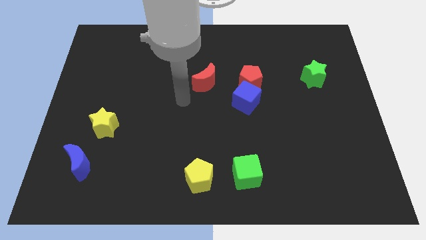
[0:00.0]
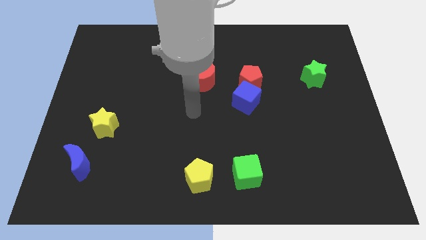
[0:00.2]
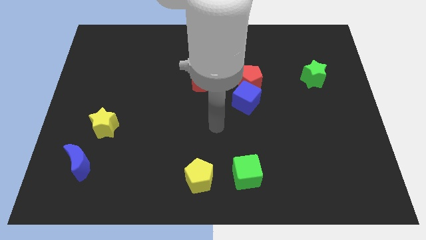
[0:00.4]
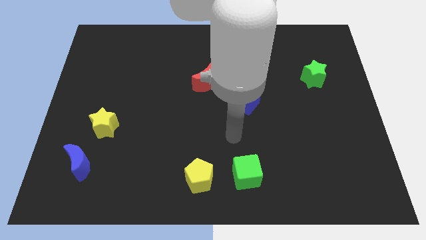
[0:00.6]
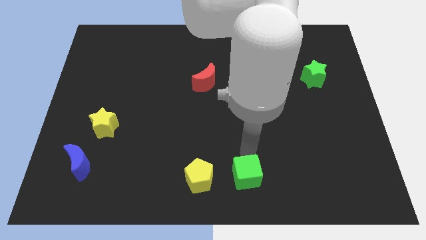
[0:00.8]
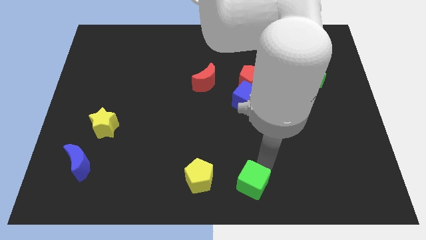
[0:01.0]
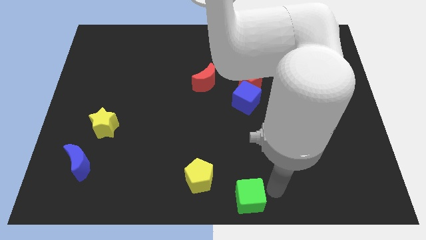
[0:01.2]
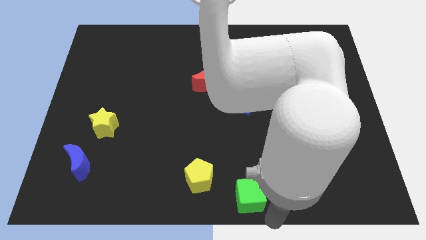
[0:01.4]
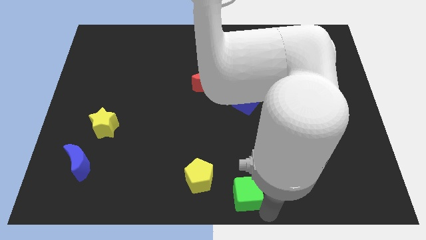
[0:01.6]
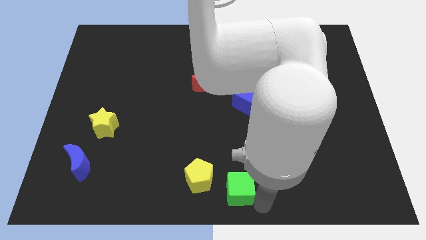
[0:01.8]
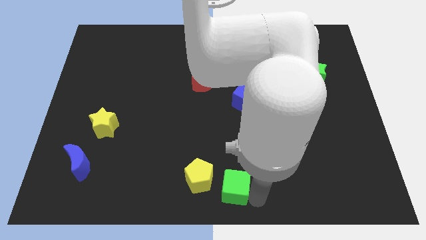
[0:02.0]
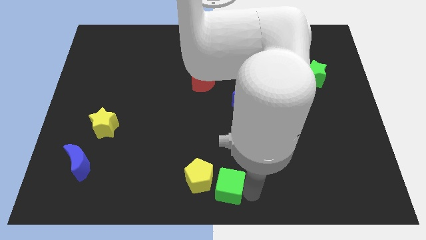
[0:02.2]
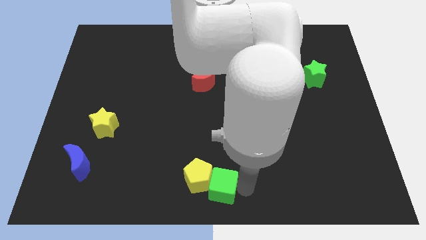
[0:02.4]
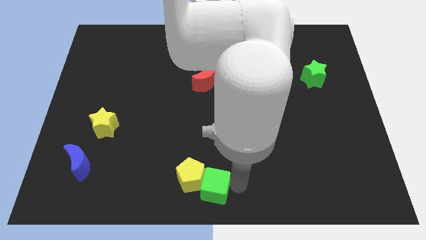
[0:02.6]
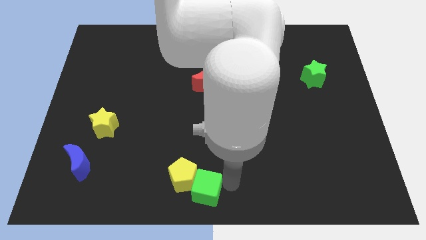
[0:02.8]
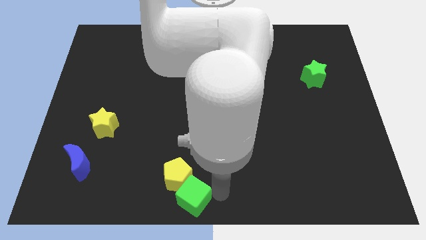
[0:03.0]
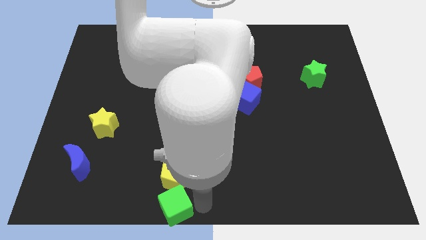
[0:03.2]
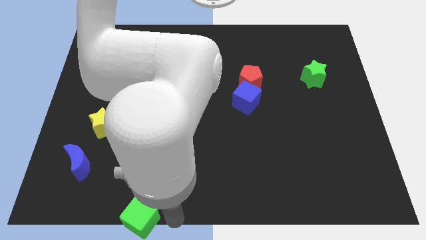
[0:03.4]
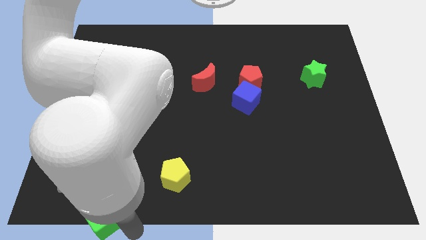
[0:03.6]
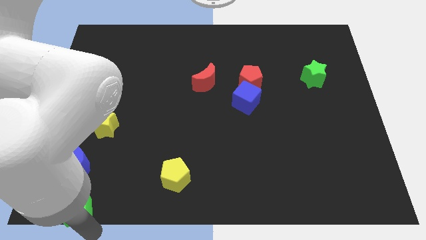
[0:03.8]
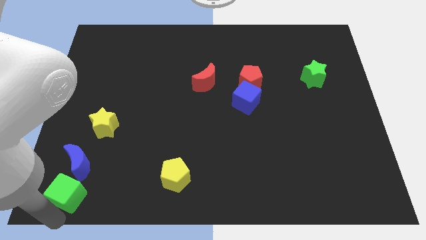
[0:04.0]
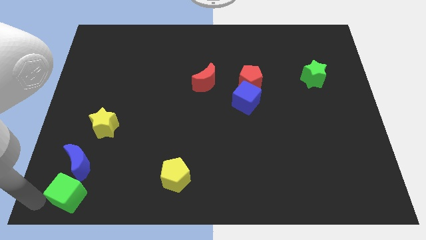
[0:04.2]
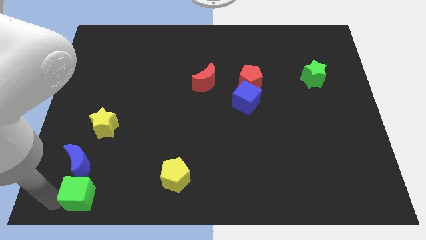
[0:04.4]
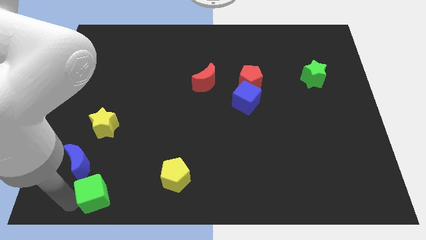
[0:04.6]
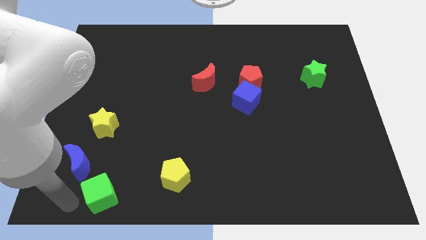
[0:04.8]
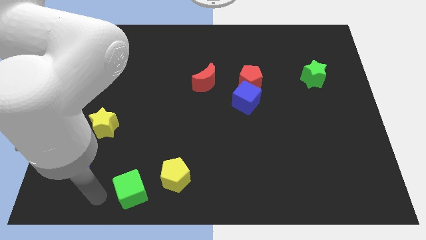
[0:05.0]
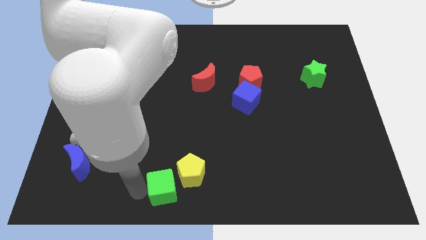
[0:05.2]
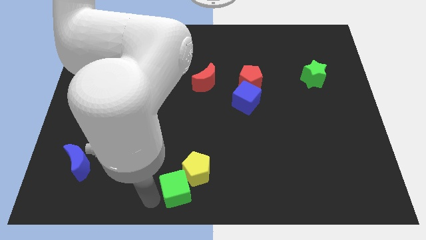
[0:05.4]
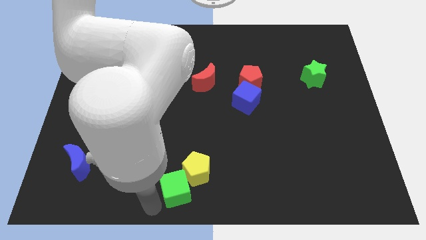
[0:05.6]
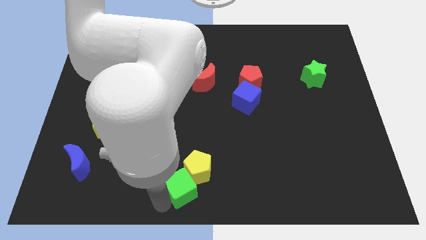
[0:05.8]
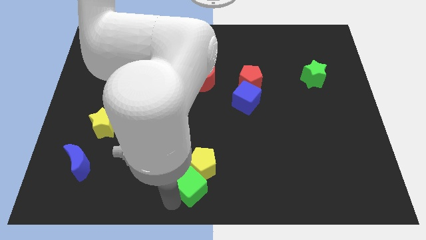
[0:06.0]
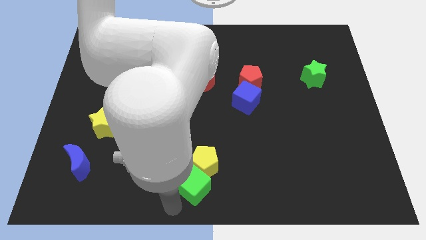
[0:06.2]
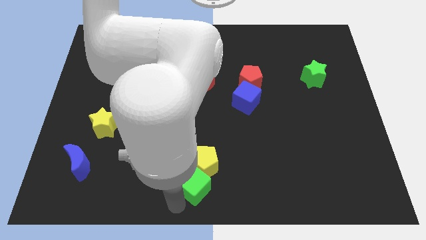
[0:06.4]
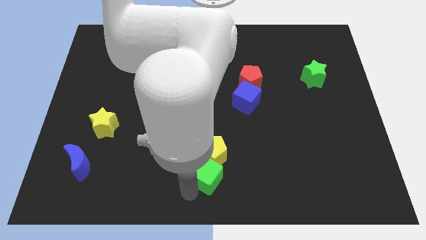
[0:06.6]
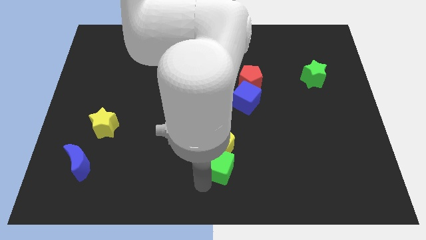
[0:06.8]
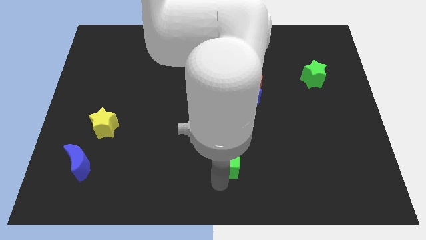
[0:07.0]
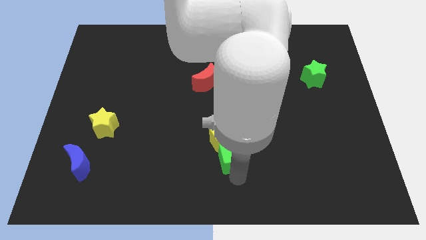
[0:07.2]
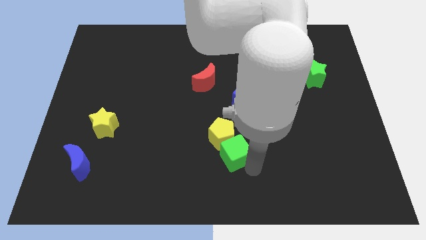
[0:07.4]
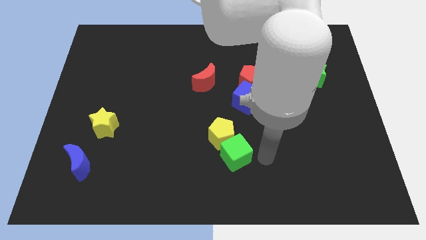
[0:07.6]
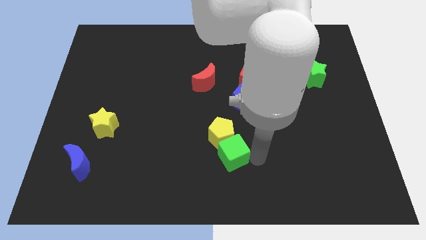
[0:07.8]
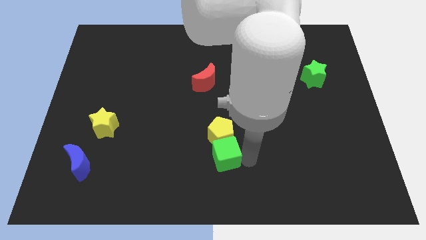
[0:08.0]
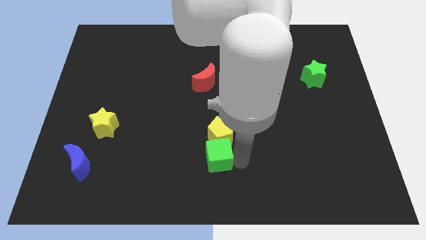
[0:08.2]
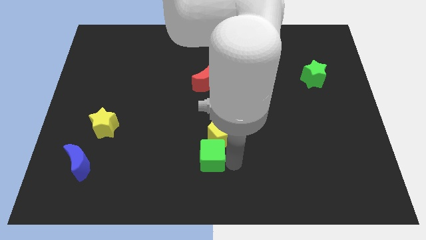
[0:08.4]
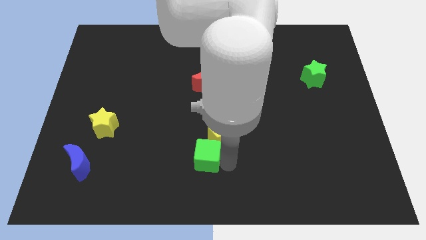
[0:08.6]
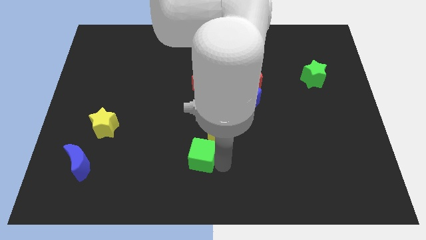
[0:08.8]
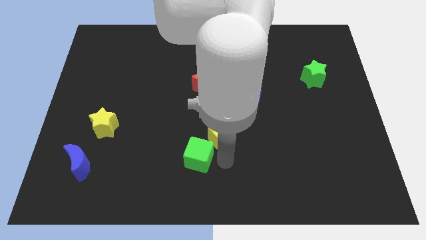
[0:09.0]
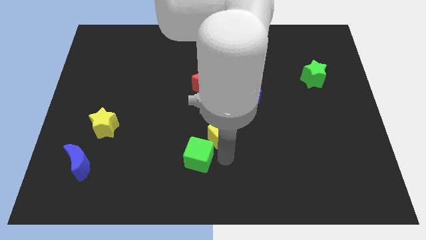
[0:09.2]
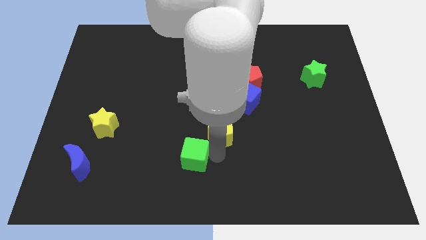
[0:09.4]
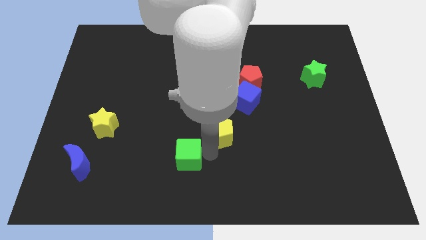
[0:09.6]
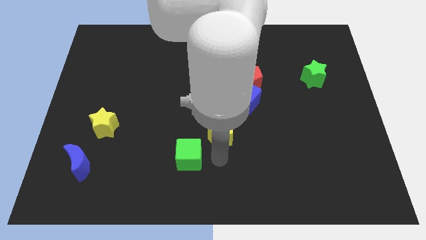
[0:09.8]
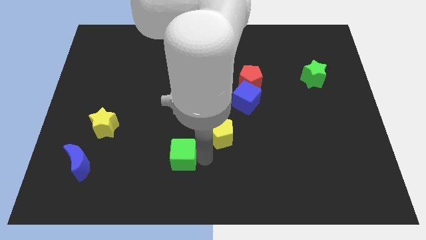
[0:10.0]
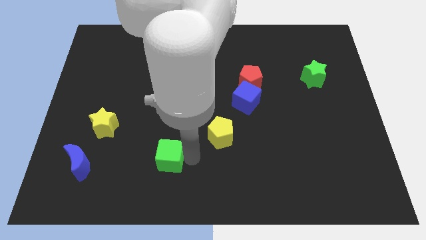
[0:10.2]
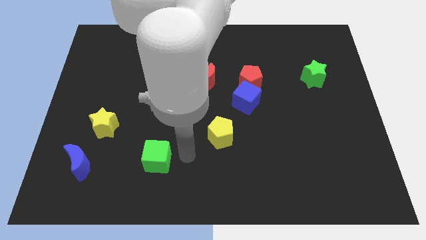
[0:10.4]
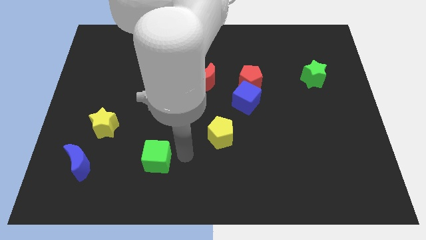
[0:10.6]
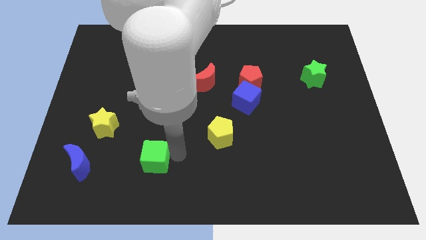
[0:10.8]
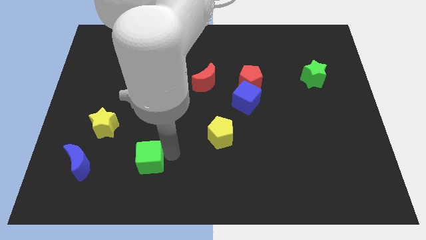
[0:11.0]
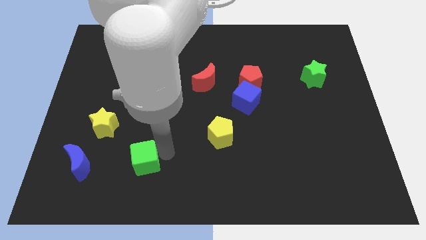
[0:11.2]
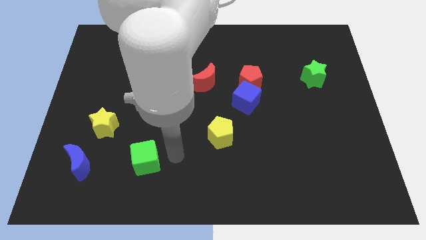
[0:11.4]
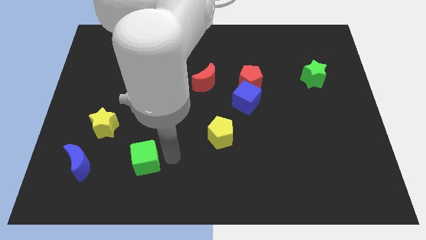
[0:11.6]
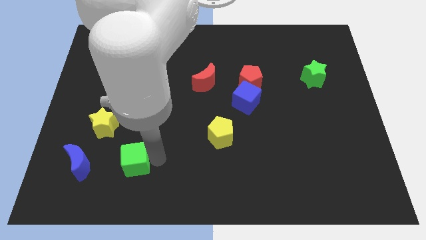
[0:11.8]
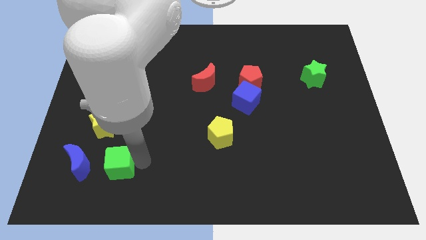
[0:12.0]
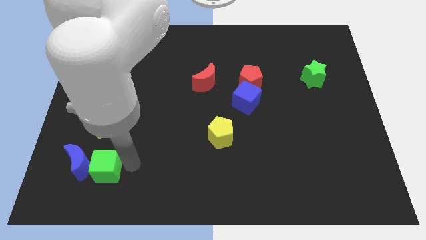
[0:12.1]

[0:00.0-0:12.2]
push the green cube next to the blue moon

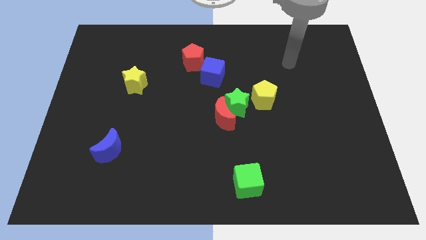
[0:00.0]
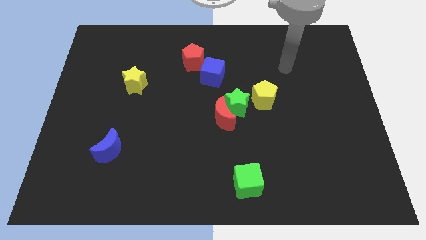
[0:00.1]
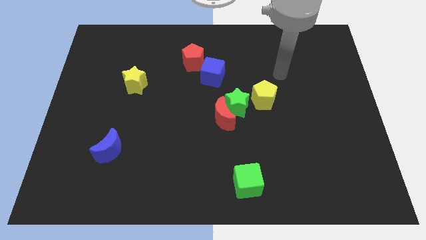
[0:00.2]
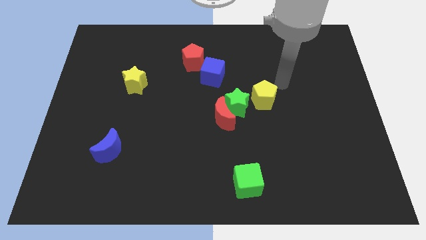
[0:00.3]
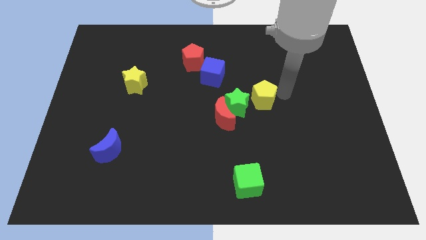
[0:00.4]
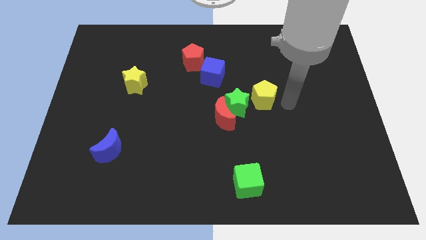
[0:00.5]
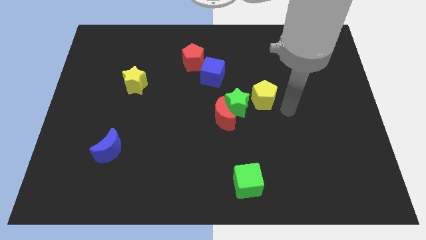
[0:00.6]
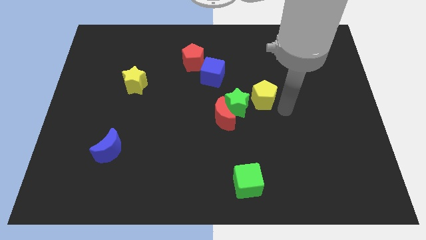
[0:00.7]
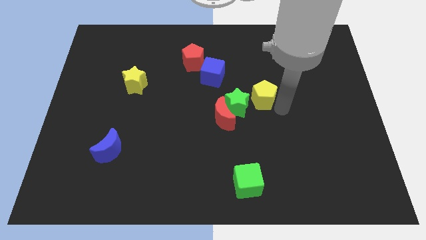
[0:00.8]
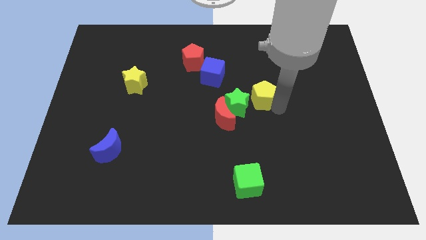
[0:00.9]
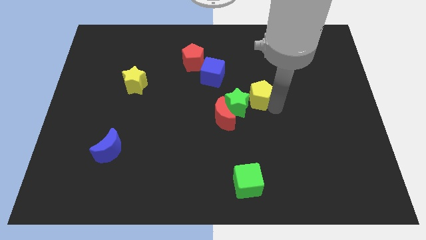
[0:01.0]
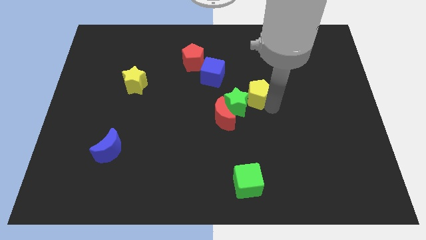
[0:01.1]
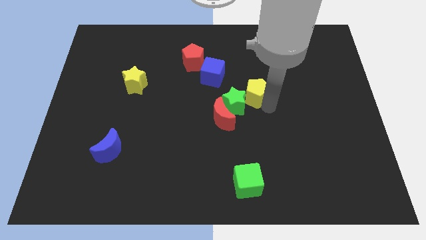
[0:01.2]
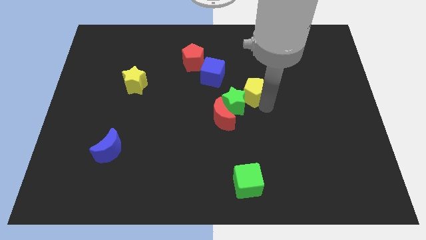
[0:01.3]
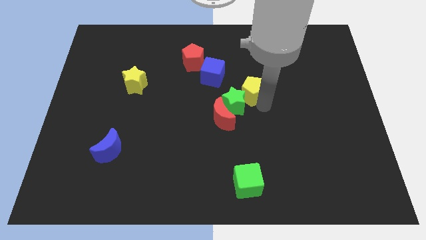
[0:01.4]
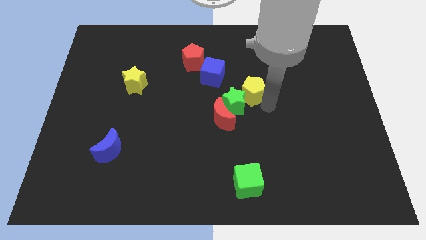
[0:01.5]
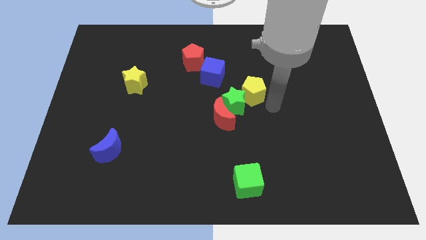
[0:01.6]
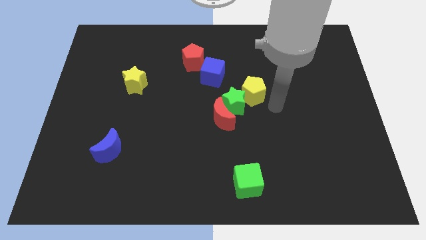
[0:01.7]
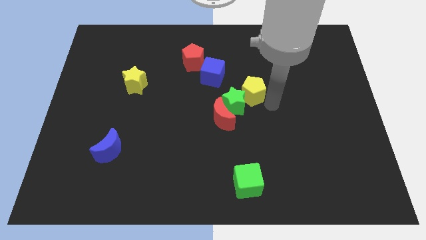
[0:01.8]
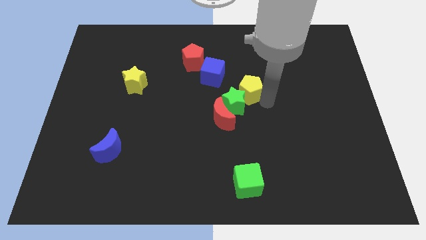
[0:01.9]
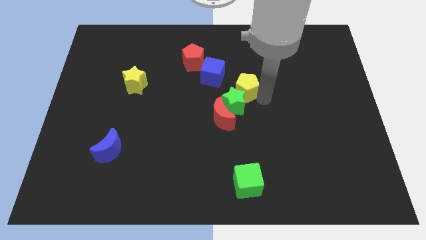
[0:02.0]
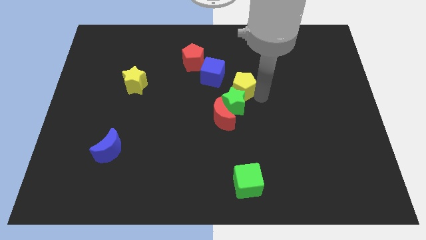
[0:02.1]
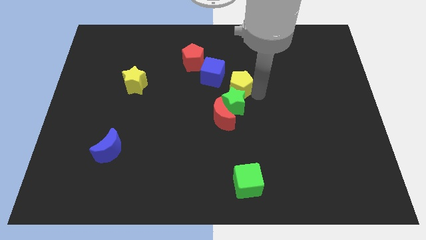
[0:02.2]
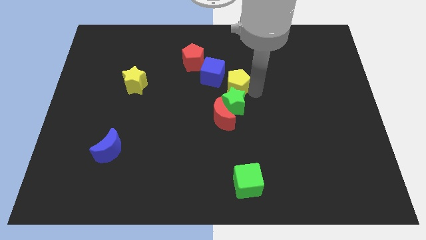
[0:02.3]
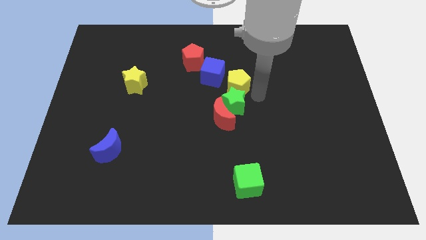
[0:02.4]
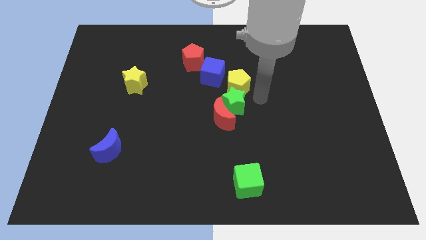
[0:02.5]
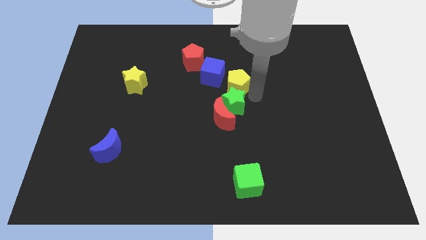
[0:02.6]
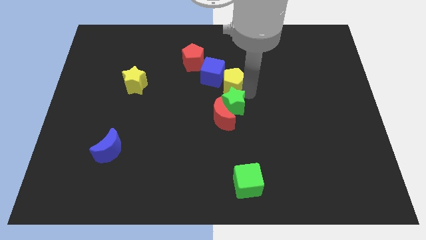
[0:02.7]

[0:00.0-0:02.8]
move the yellow pentagon towards the blue cube
